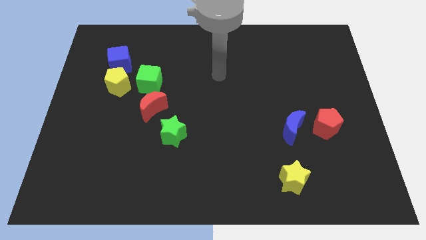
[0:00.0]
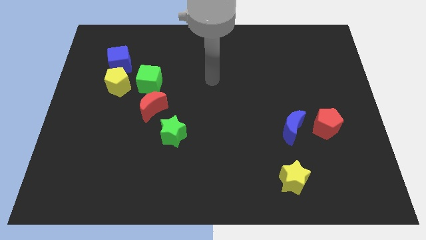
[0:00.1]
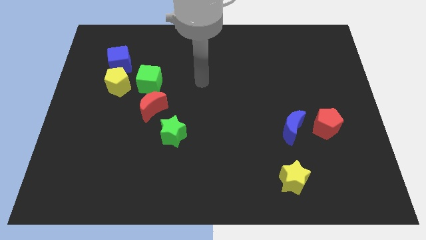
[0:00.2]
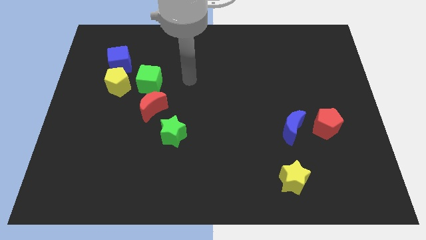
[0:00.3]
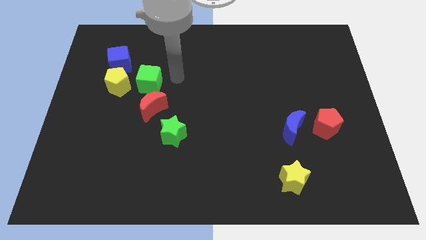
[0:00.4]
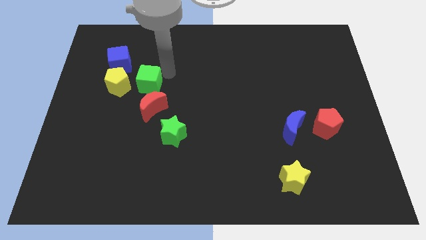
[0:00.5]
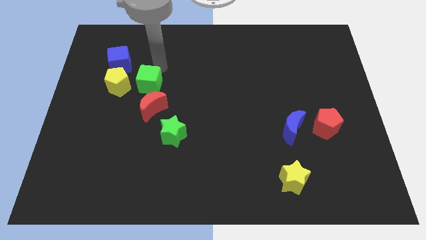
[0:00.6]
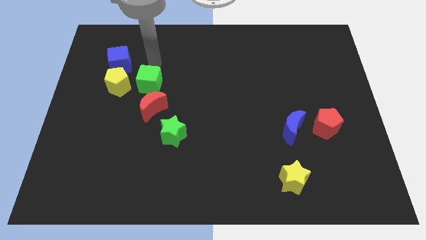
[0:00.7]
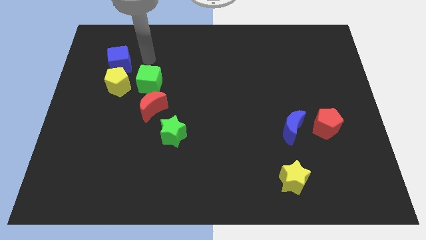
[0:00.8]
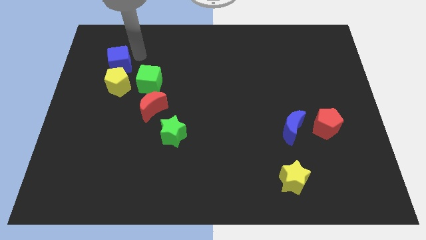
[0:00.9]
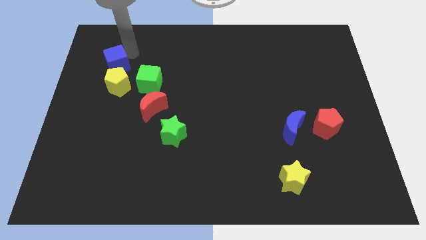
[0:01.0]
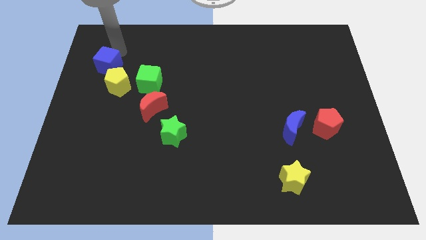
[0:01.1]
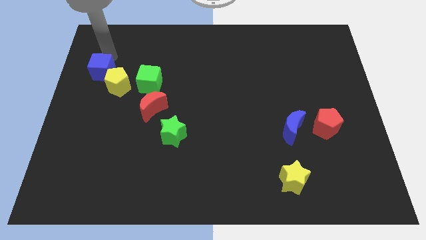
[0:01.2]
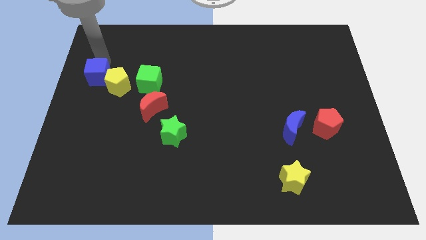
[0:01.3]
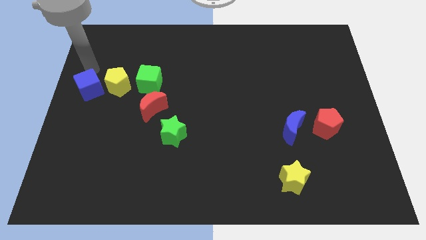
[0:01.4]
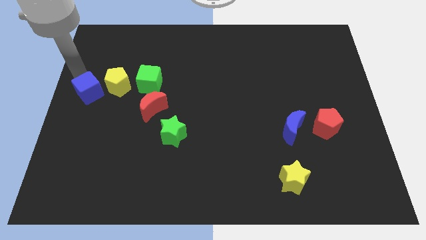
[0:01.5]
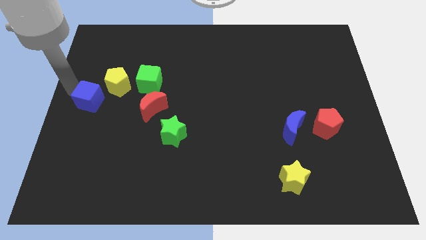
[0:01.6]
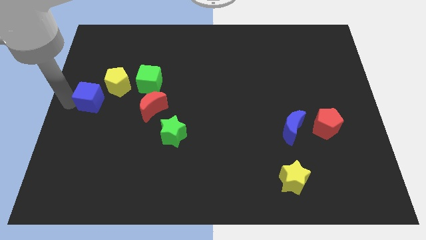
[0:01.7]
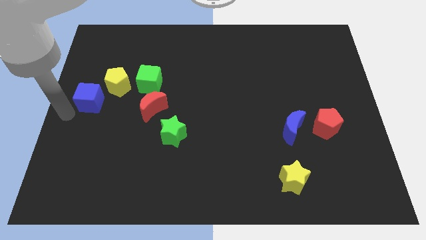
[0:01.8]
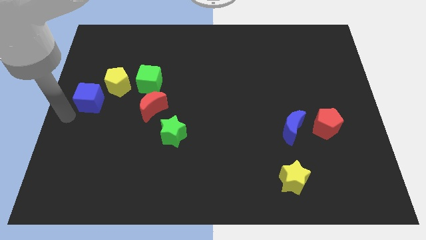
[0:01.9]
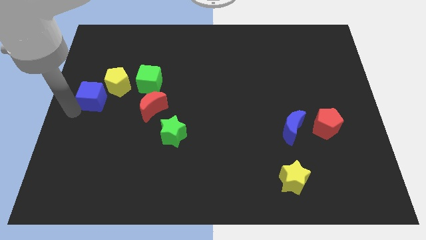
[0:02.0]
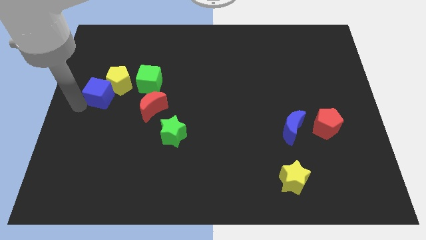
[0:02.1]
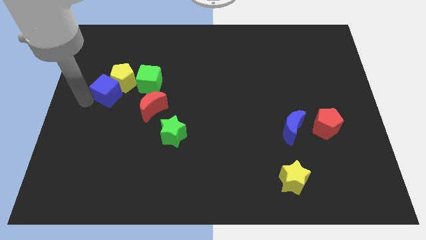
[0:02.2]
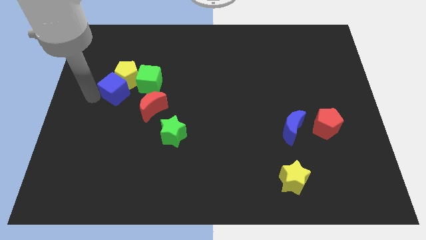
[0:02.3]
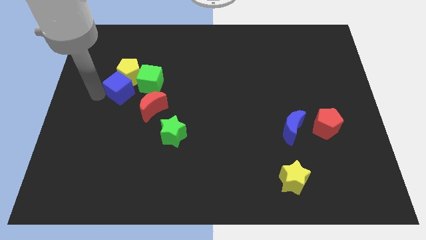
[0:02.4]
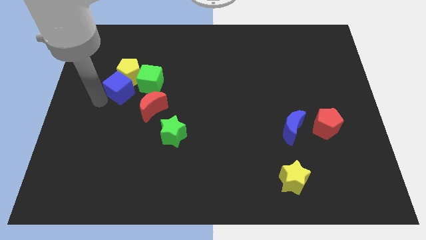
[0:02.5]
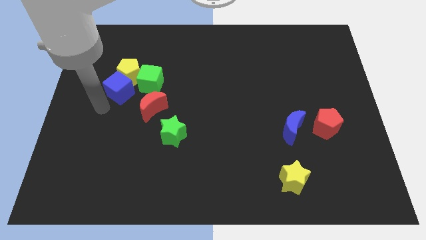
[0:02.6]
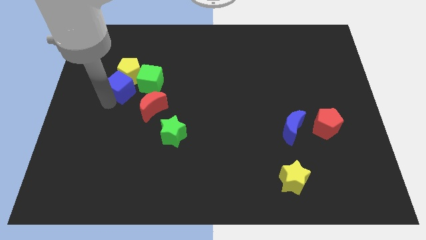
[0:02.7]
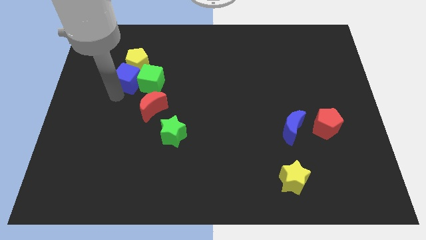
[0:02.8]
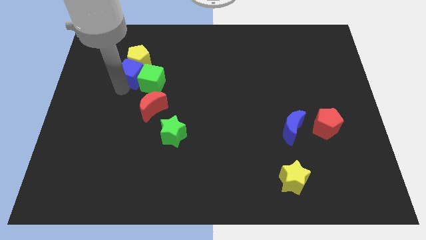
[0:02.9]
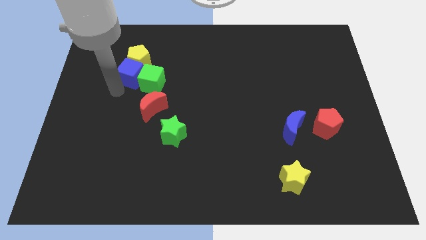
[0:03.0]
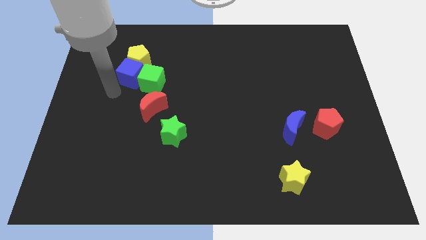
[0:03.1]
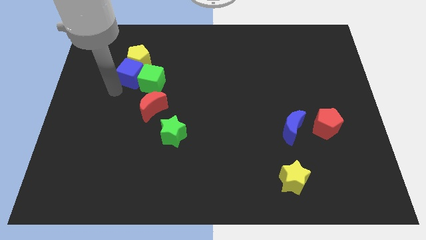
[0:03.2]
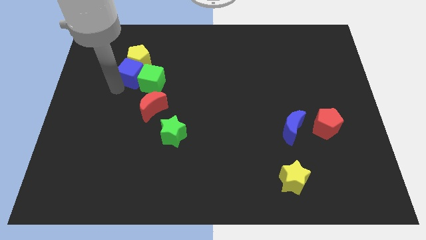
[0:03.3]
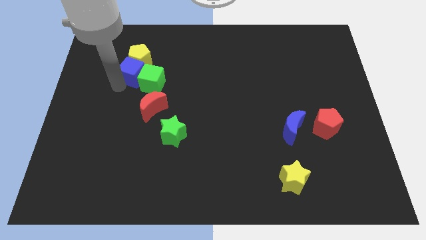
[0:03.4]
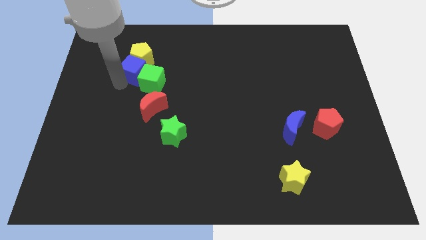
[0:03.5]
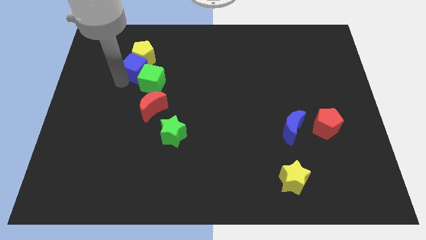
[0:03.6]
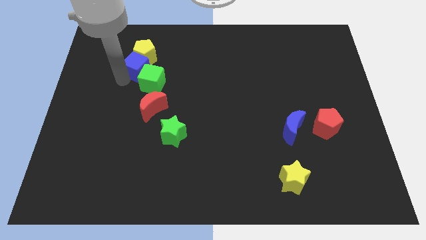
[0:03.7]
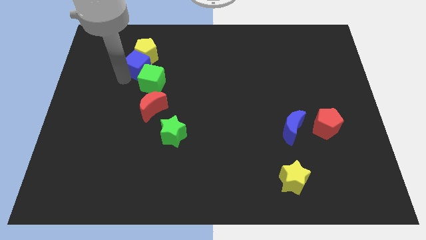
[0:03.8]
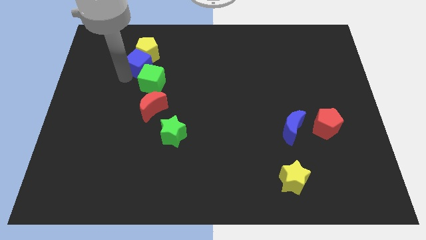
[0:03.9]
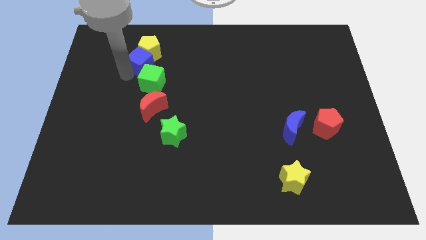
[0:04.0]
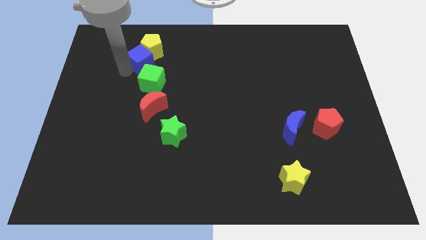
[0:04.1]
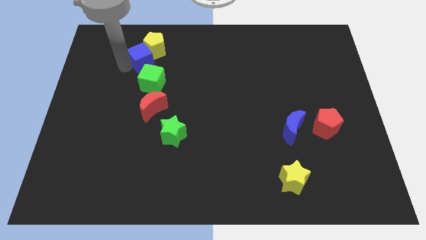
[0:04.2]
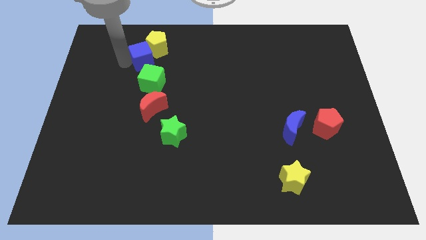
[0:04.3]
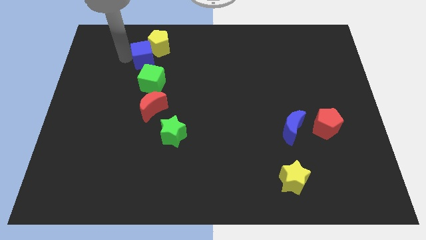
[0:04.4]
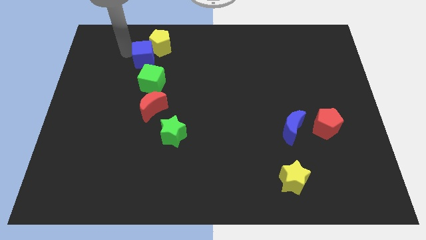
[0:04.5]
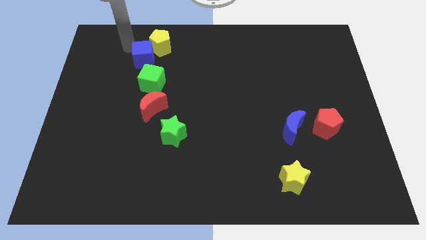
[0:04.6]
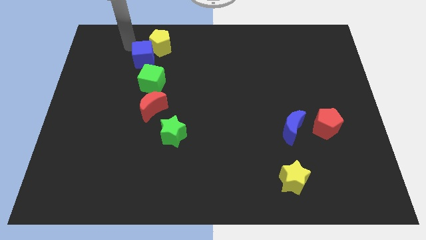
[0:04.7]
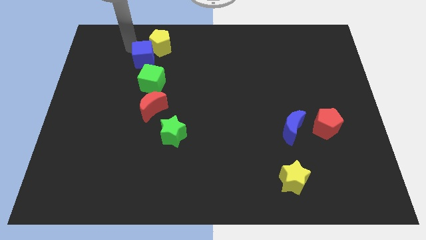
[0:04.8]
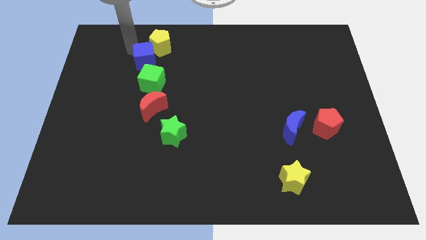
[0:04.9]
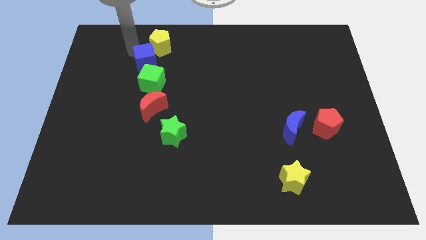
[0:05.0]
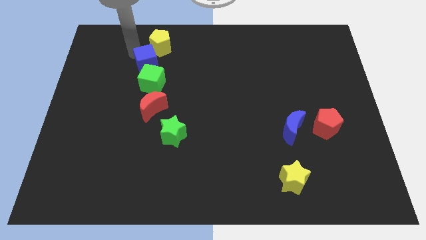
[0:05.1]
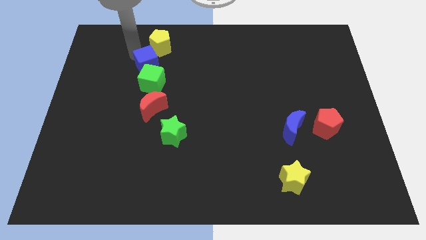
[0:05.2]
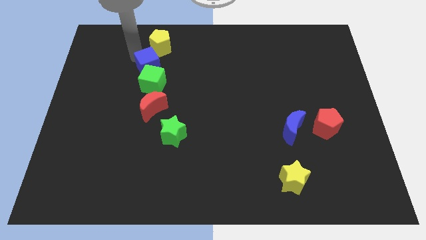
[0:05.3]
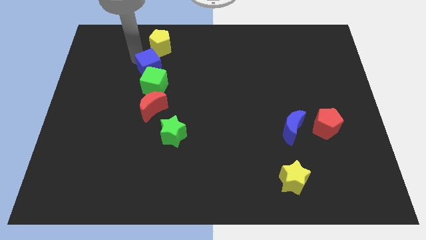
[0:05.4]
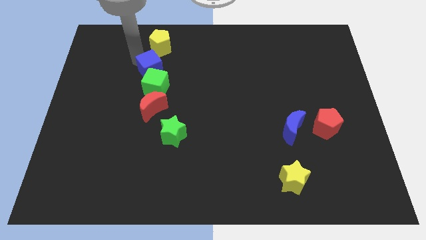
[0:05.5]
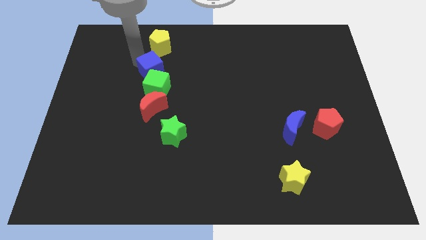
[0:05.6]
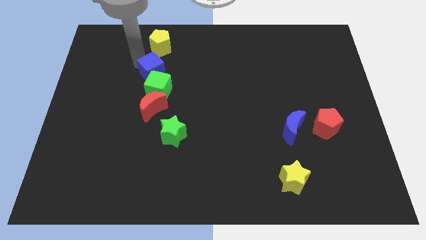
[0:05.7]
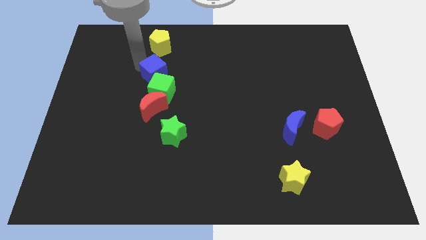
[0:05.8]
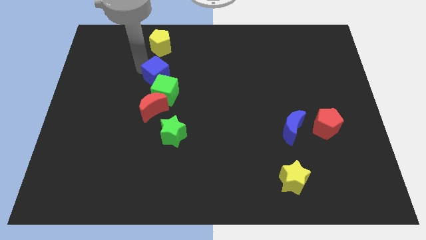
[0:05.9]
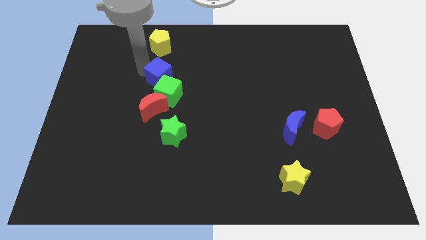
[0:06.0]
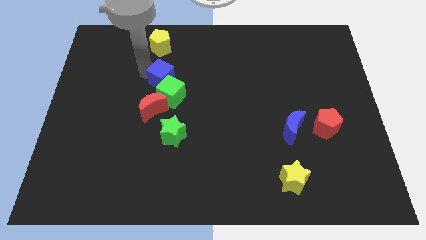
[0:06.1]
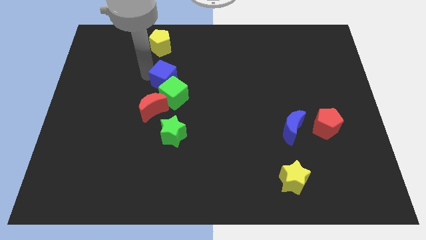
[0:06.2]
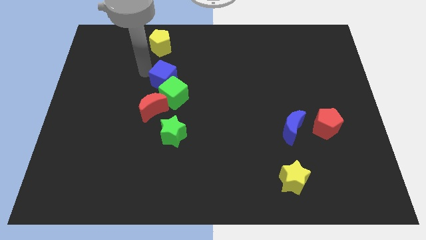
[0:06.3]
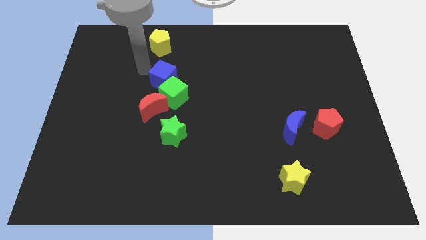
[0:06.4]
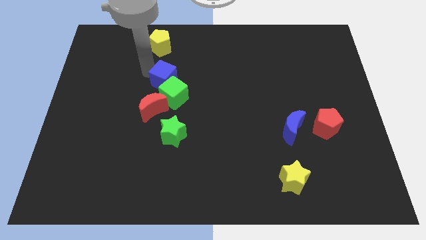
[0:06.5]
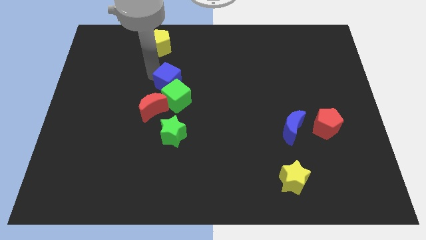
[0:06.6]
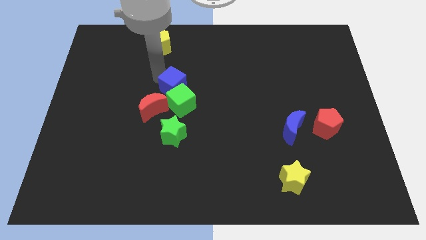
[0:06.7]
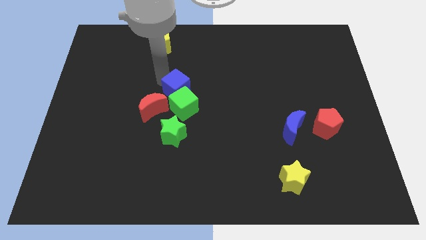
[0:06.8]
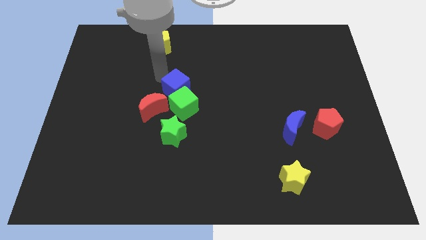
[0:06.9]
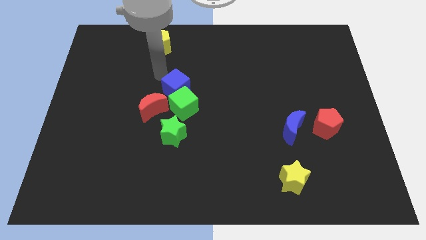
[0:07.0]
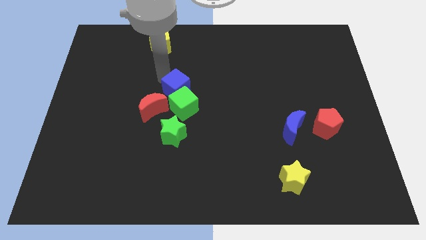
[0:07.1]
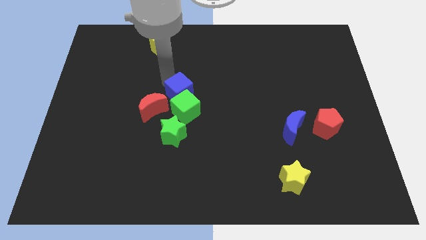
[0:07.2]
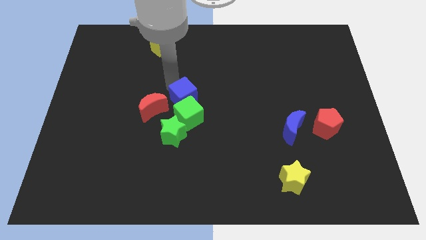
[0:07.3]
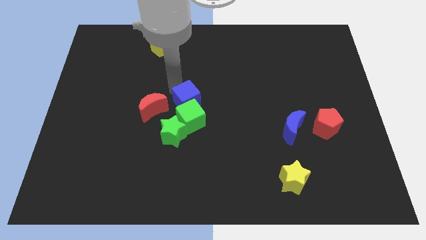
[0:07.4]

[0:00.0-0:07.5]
move the blue cube diagonally downwards and right

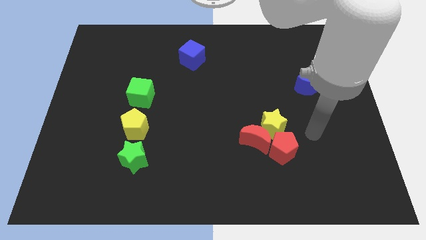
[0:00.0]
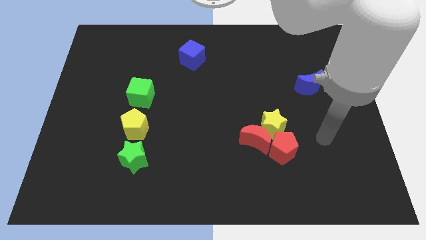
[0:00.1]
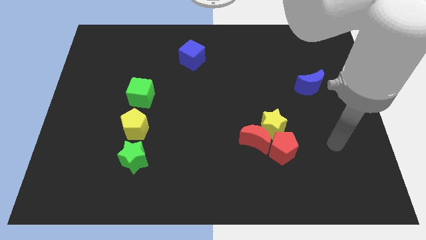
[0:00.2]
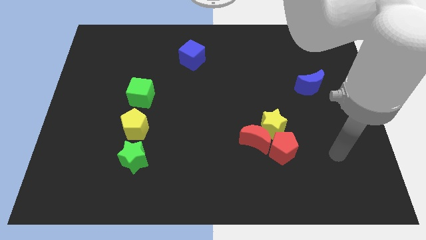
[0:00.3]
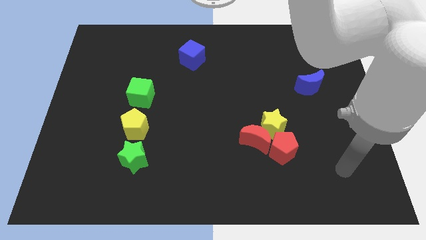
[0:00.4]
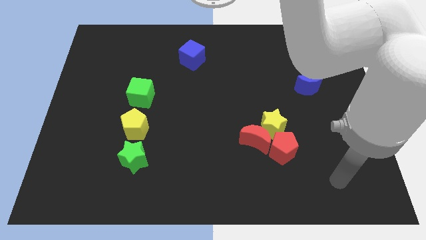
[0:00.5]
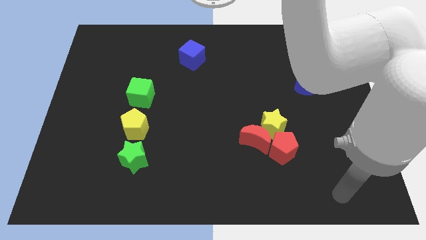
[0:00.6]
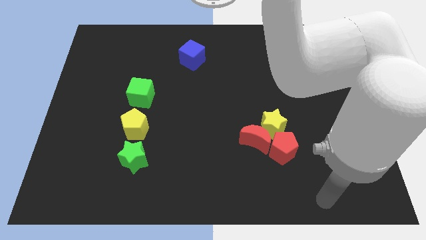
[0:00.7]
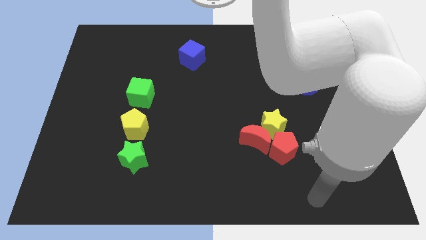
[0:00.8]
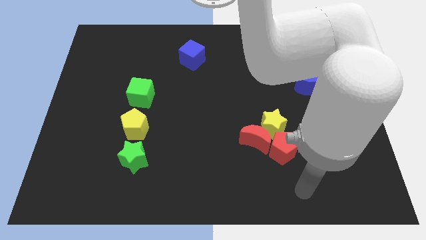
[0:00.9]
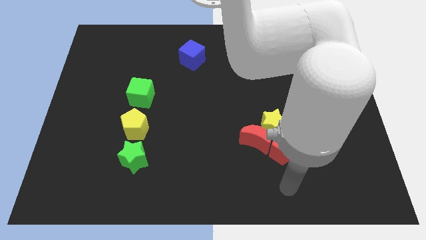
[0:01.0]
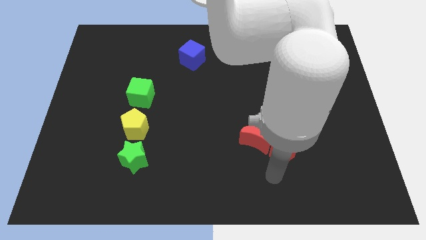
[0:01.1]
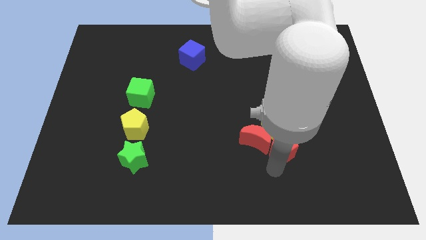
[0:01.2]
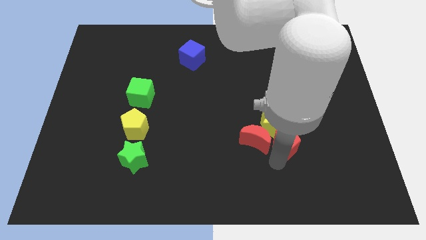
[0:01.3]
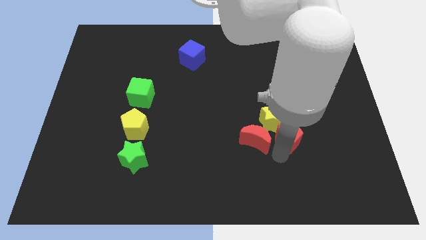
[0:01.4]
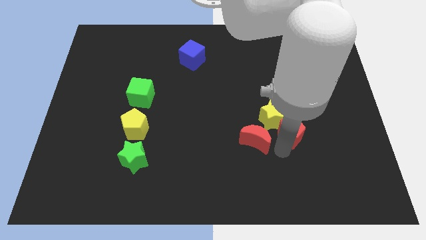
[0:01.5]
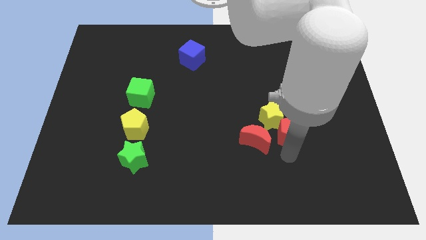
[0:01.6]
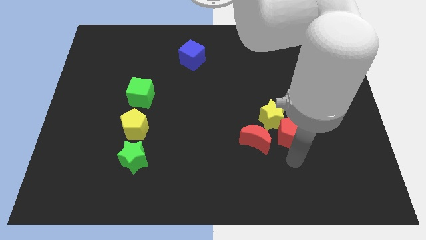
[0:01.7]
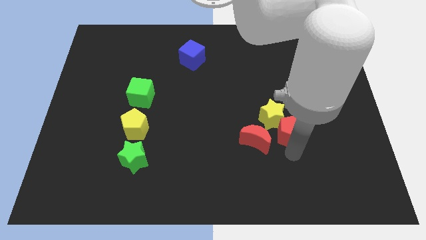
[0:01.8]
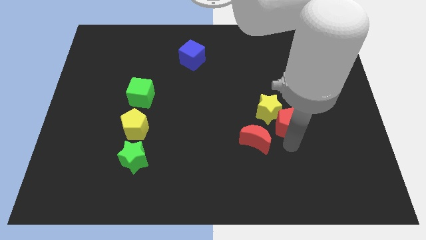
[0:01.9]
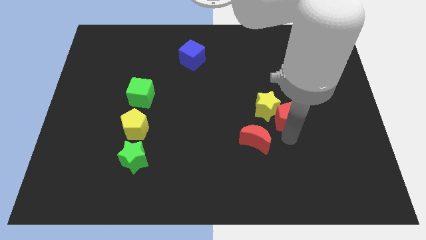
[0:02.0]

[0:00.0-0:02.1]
slightly push the red pentagon upwards
